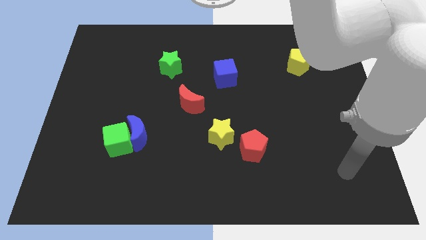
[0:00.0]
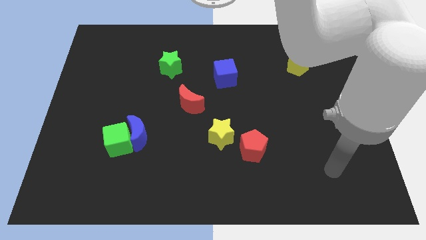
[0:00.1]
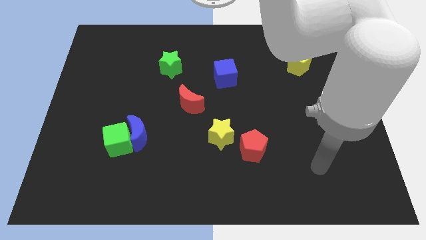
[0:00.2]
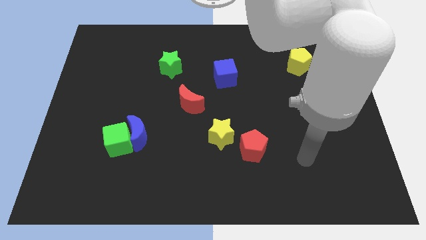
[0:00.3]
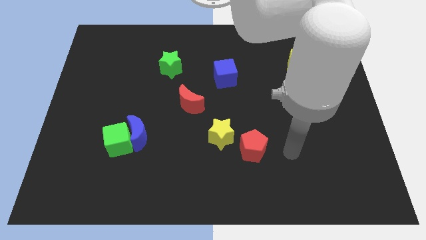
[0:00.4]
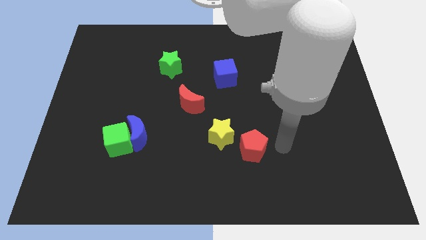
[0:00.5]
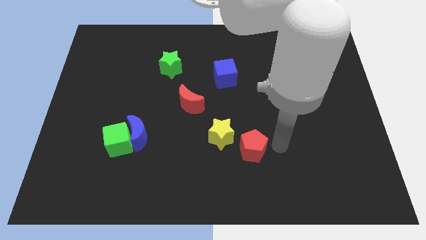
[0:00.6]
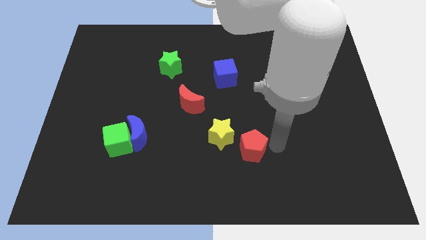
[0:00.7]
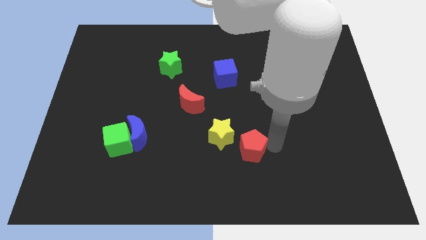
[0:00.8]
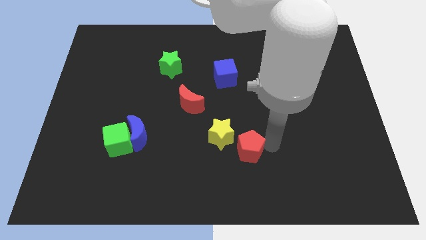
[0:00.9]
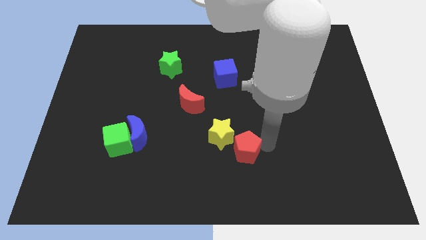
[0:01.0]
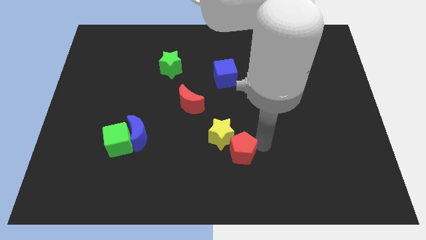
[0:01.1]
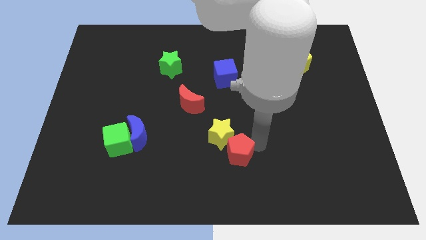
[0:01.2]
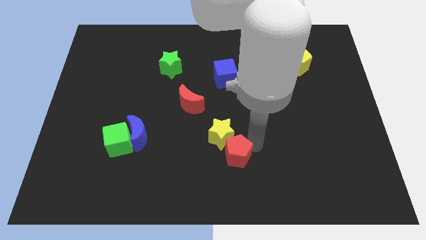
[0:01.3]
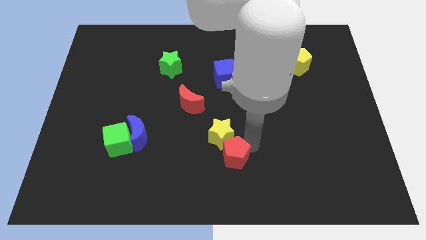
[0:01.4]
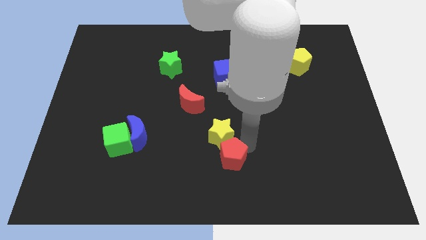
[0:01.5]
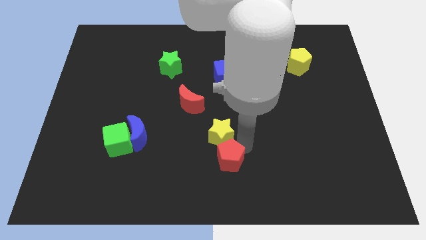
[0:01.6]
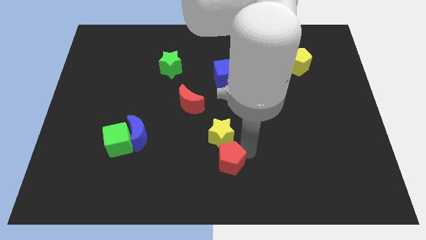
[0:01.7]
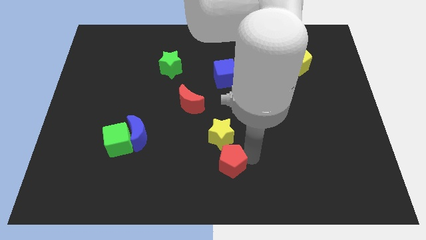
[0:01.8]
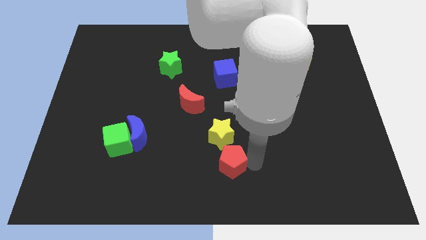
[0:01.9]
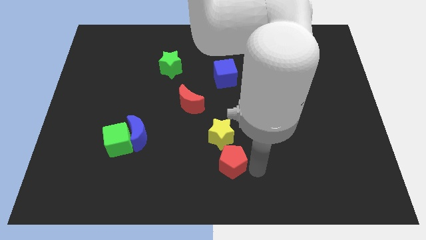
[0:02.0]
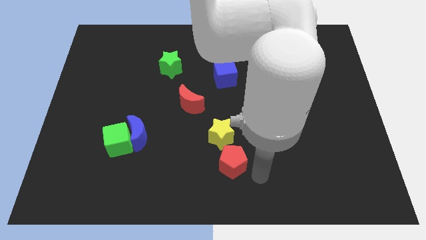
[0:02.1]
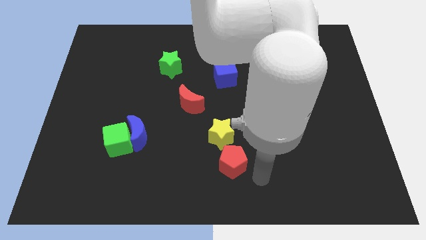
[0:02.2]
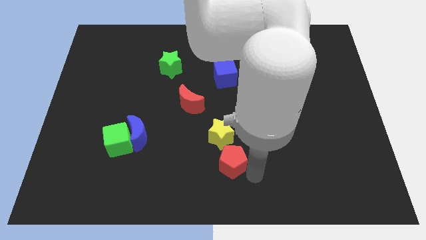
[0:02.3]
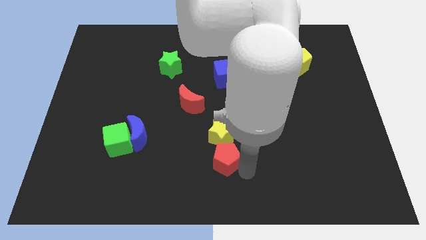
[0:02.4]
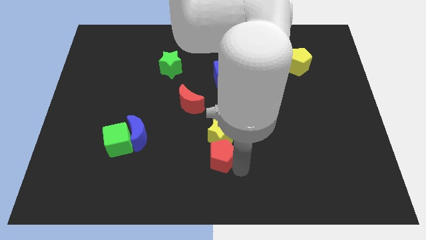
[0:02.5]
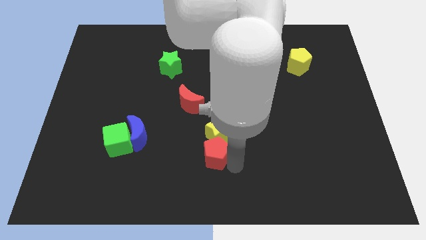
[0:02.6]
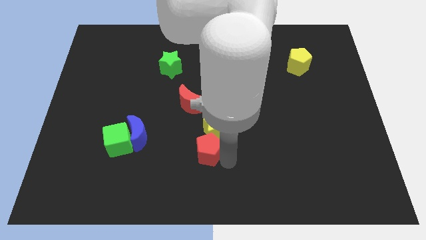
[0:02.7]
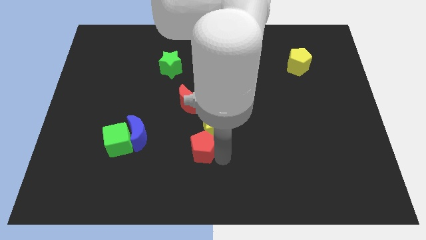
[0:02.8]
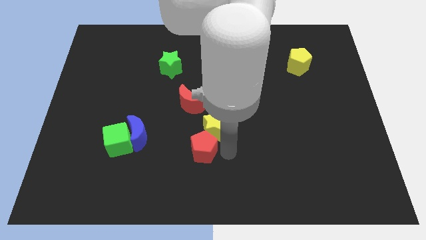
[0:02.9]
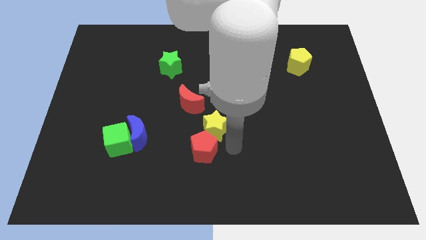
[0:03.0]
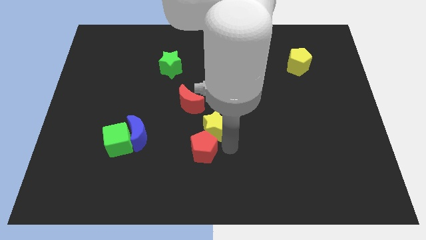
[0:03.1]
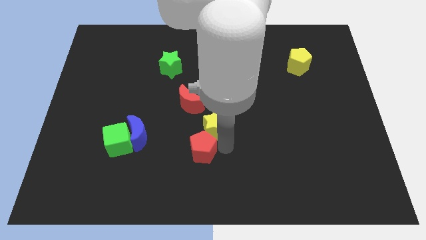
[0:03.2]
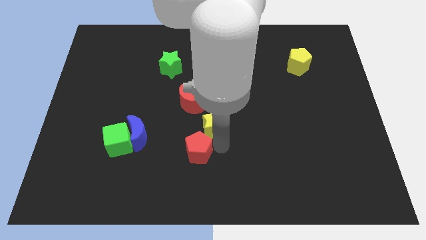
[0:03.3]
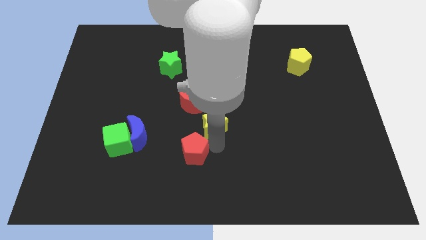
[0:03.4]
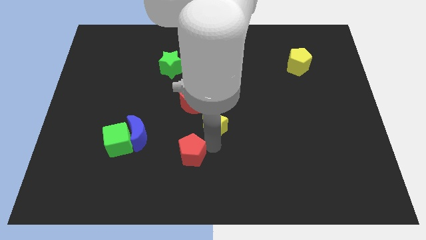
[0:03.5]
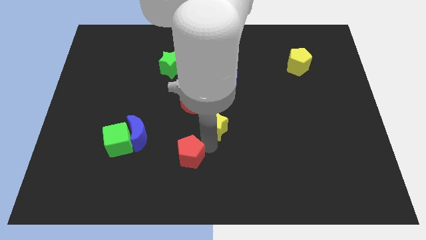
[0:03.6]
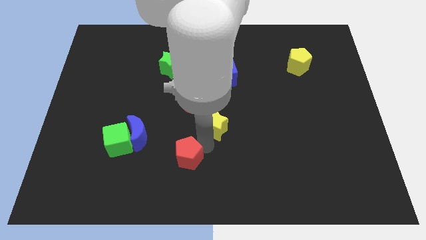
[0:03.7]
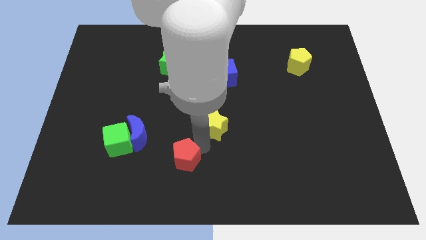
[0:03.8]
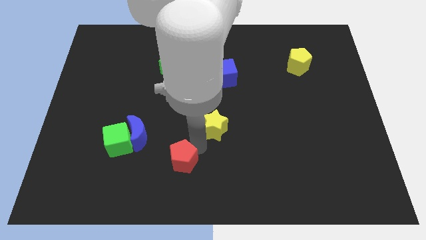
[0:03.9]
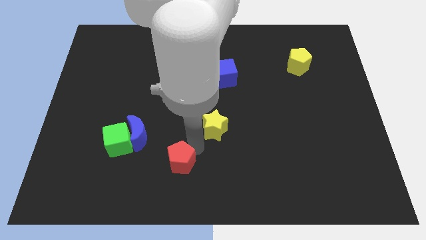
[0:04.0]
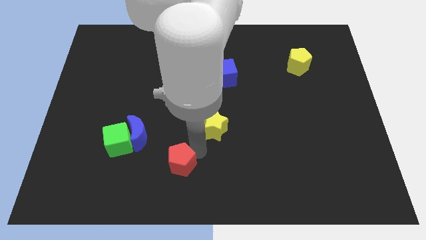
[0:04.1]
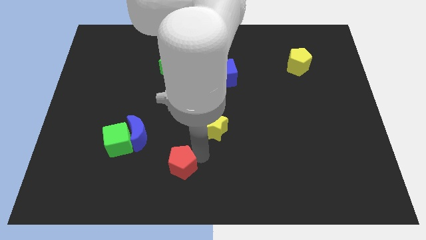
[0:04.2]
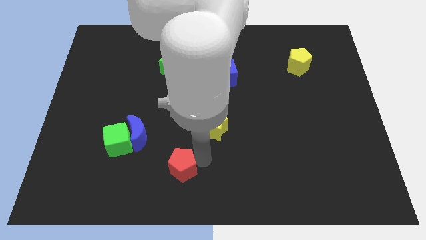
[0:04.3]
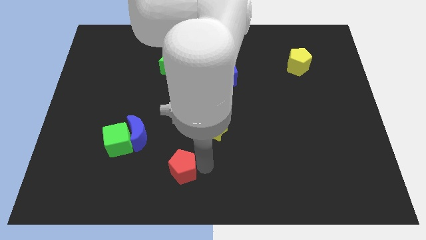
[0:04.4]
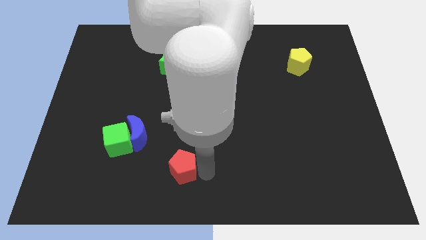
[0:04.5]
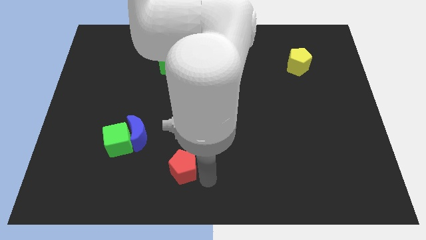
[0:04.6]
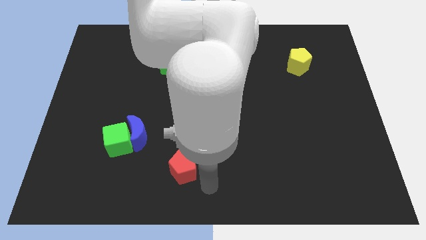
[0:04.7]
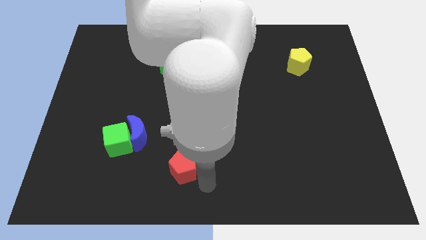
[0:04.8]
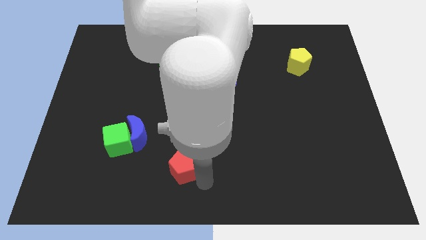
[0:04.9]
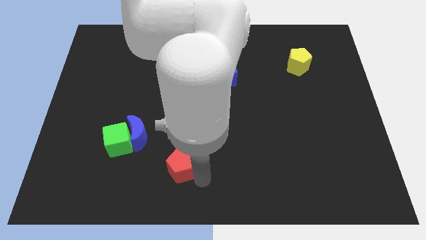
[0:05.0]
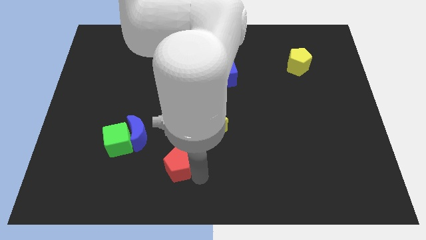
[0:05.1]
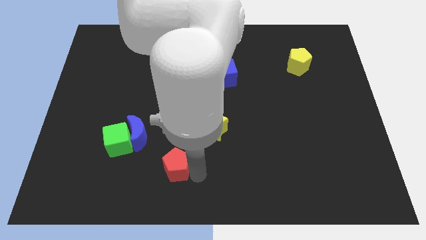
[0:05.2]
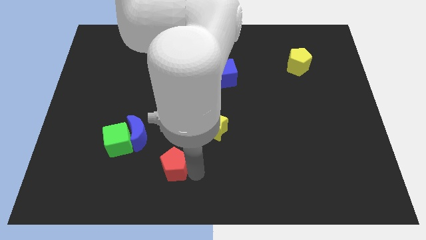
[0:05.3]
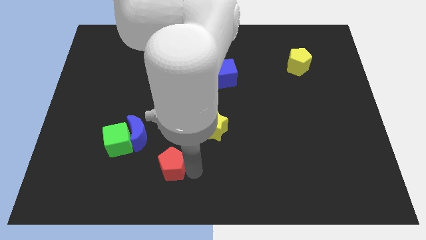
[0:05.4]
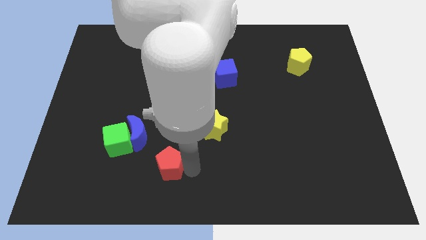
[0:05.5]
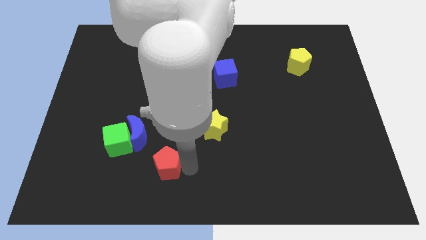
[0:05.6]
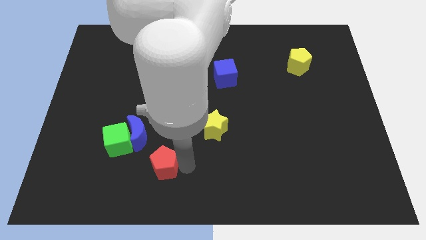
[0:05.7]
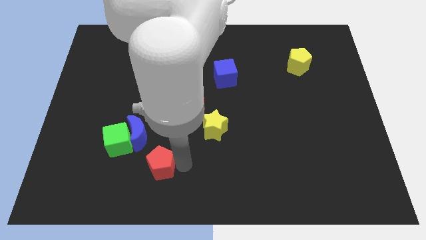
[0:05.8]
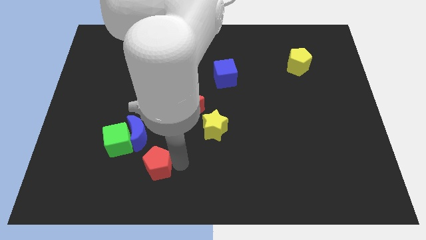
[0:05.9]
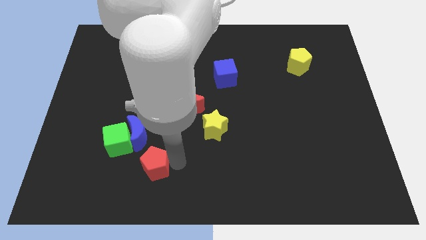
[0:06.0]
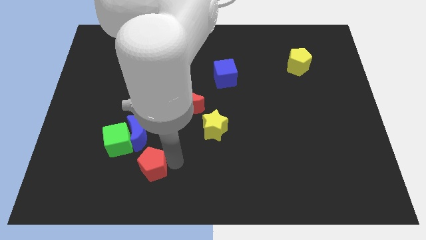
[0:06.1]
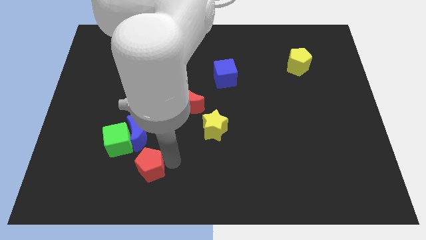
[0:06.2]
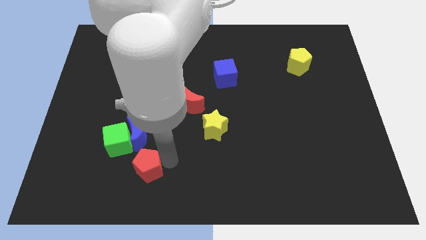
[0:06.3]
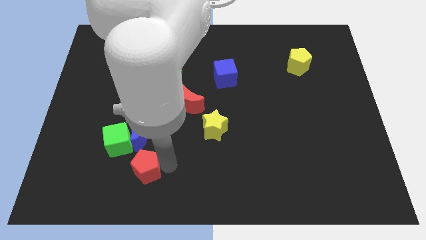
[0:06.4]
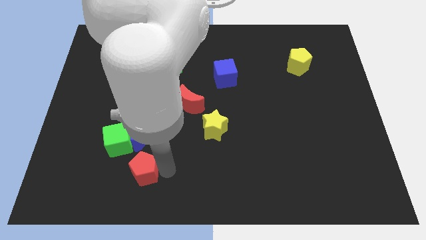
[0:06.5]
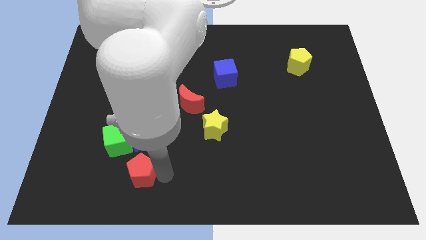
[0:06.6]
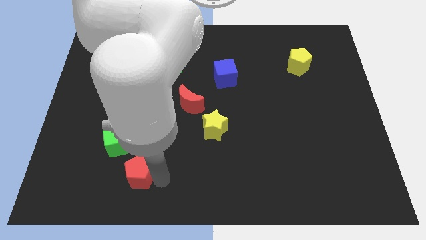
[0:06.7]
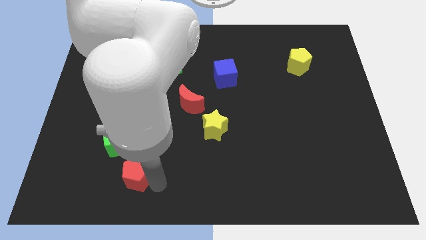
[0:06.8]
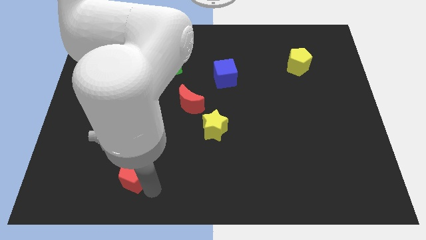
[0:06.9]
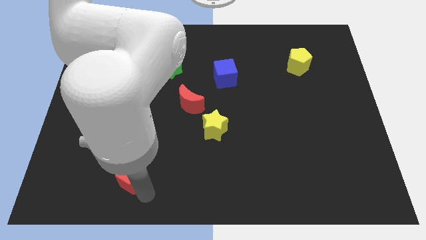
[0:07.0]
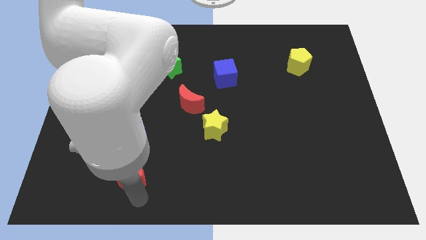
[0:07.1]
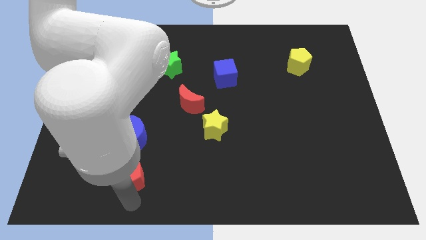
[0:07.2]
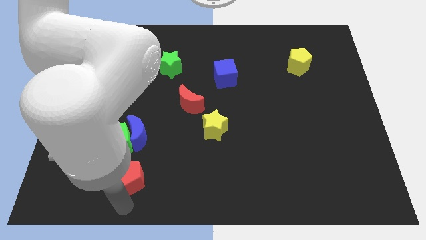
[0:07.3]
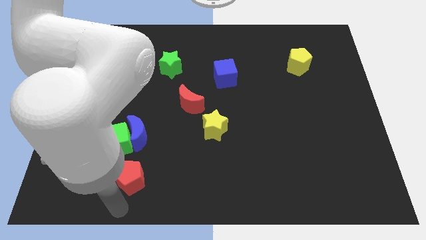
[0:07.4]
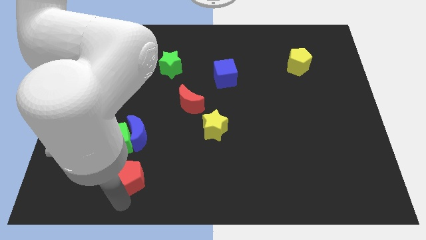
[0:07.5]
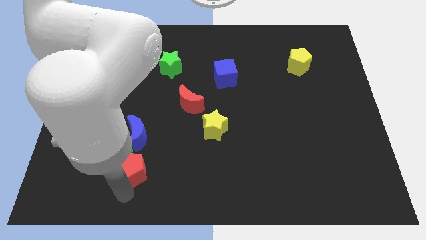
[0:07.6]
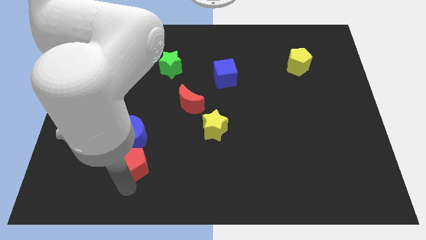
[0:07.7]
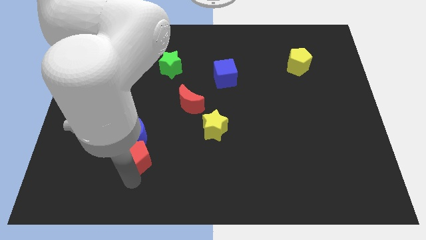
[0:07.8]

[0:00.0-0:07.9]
put the red pentagon close to the green cube
